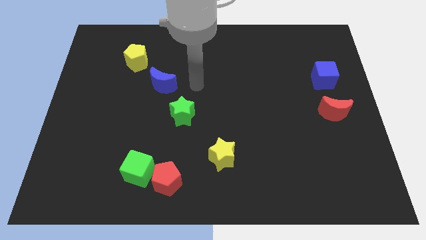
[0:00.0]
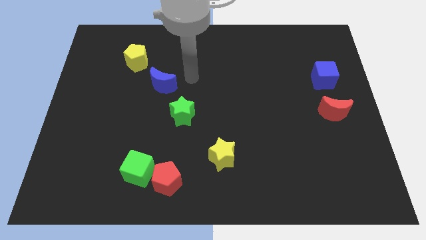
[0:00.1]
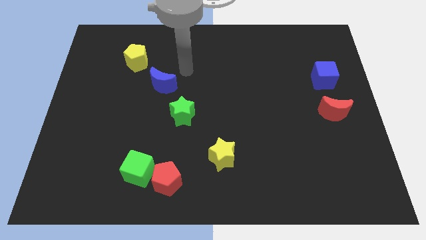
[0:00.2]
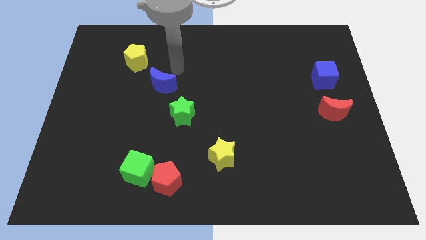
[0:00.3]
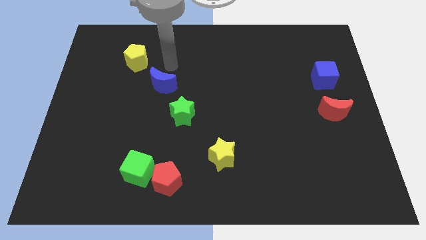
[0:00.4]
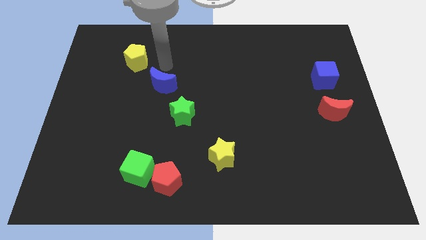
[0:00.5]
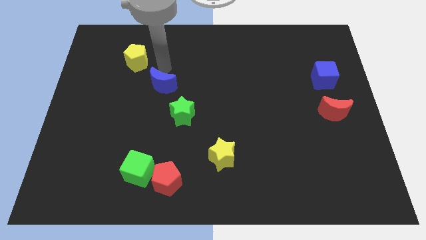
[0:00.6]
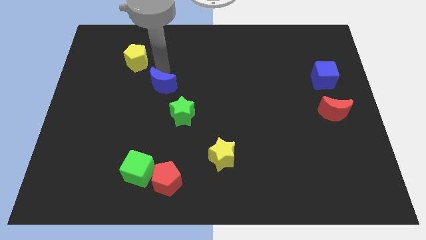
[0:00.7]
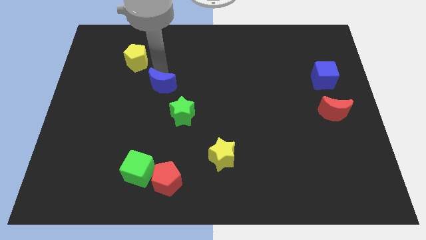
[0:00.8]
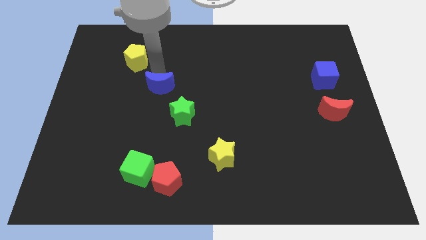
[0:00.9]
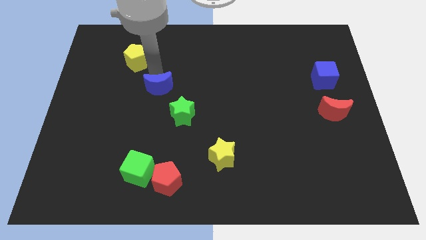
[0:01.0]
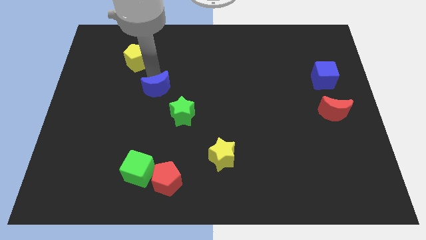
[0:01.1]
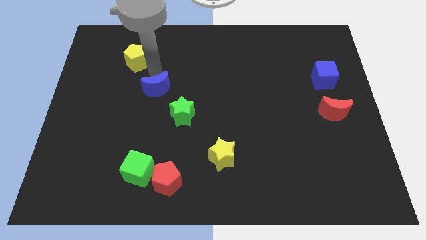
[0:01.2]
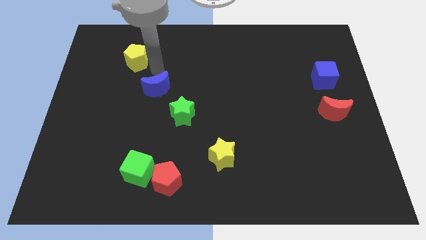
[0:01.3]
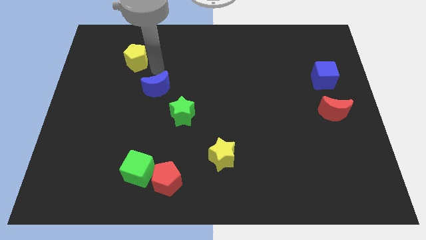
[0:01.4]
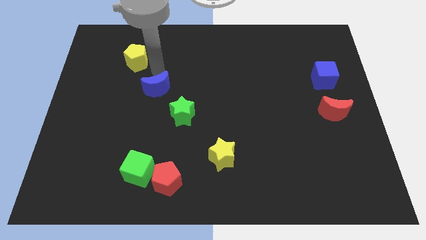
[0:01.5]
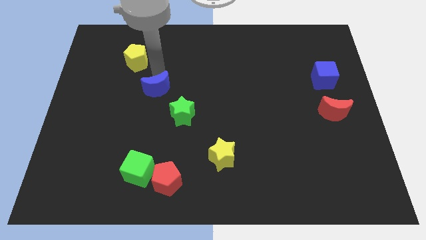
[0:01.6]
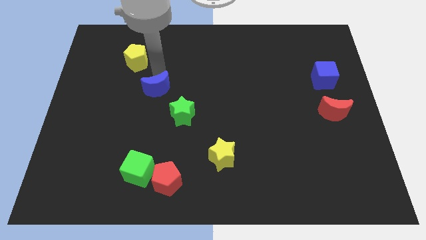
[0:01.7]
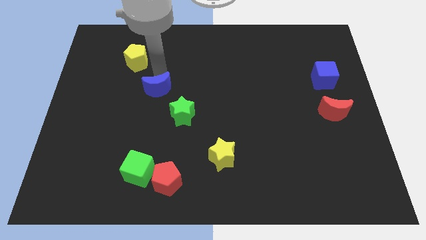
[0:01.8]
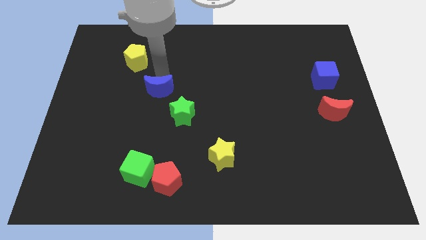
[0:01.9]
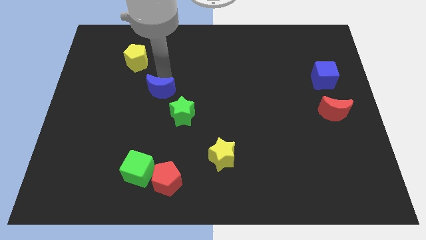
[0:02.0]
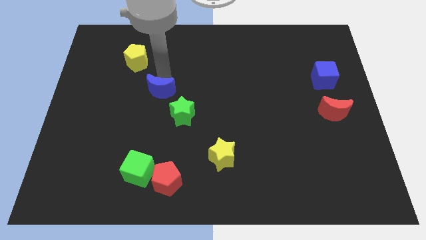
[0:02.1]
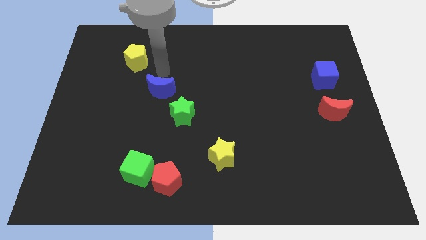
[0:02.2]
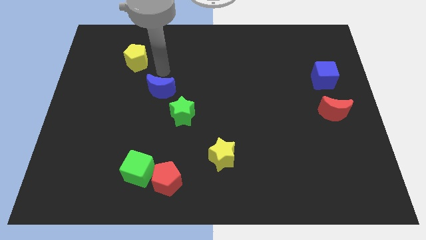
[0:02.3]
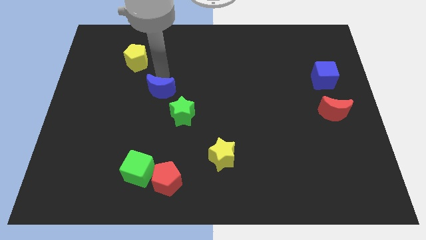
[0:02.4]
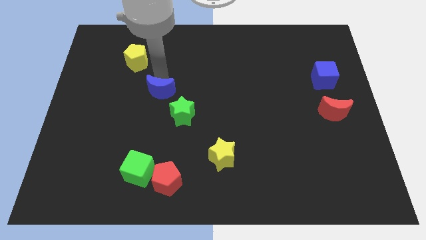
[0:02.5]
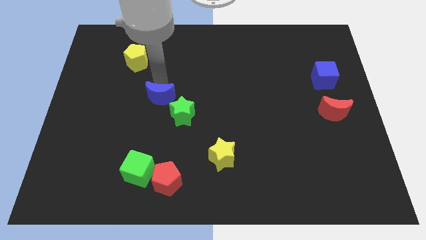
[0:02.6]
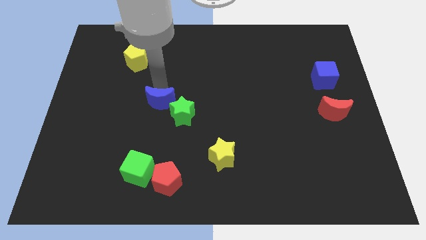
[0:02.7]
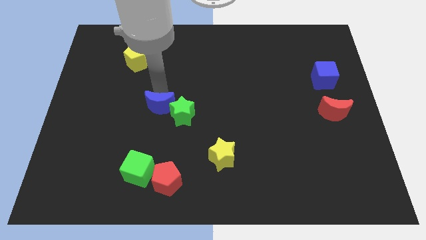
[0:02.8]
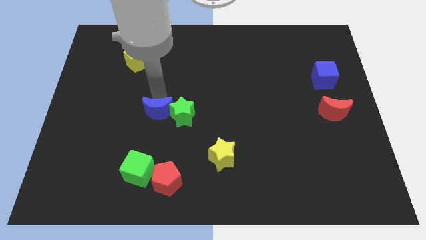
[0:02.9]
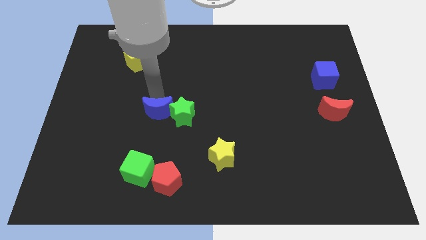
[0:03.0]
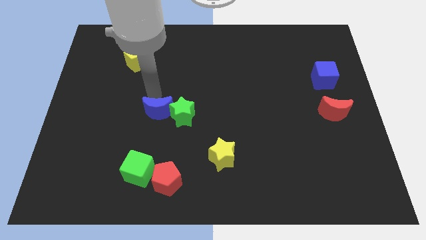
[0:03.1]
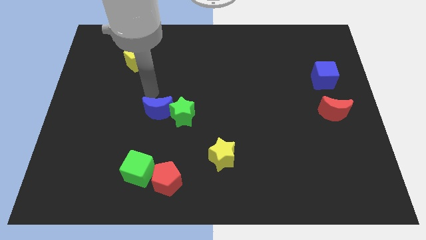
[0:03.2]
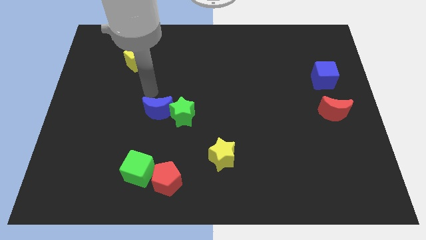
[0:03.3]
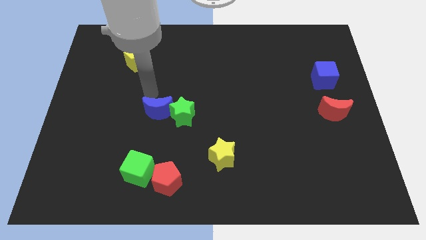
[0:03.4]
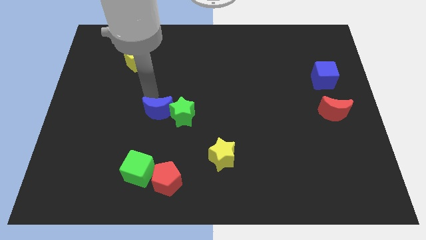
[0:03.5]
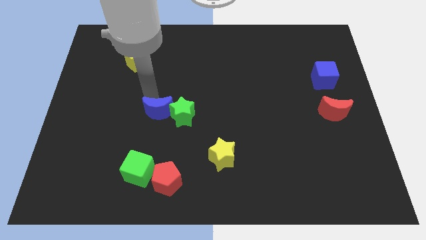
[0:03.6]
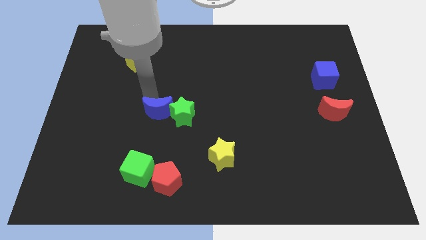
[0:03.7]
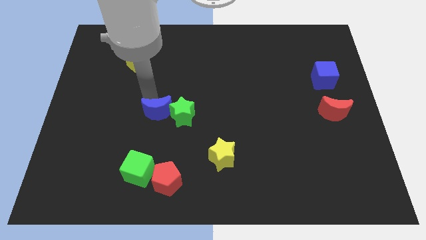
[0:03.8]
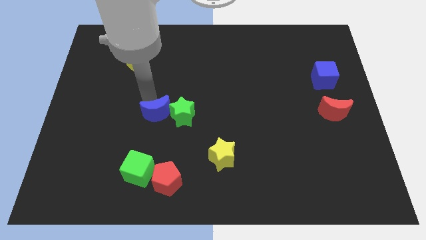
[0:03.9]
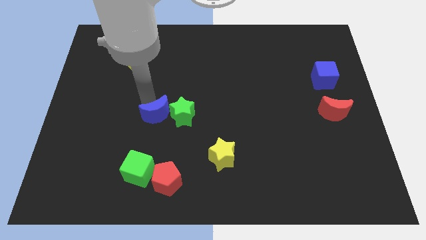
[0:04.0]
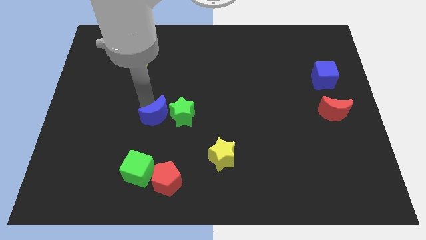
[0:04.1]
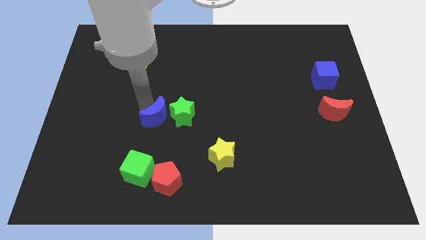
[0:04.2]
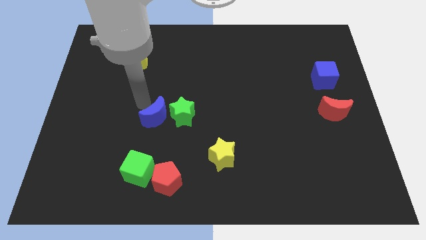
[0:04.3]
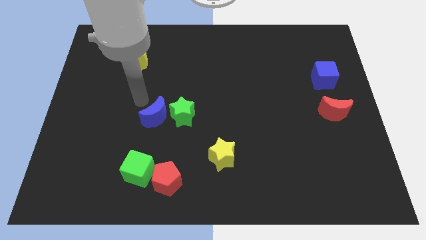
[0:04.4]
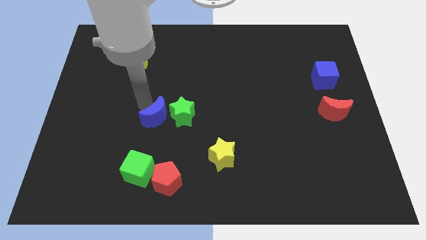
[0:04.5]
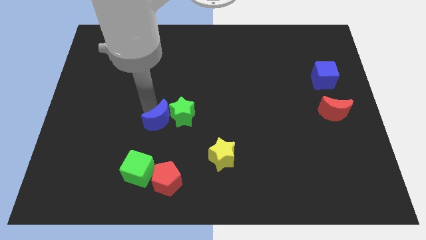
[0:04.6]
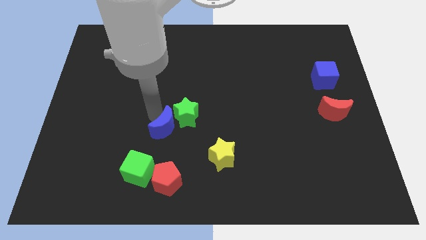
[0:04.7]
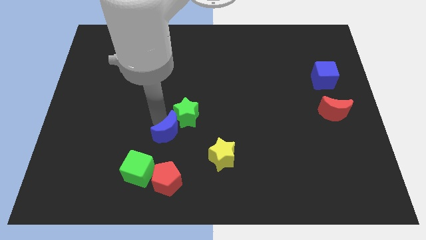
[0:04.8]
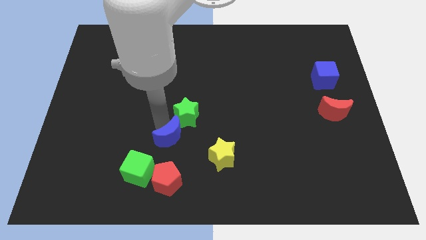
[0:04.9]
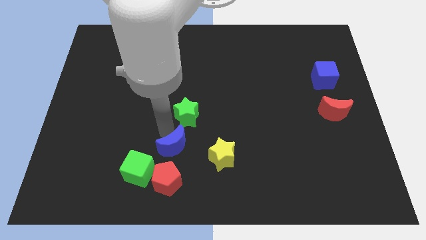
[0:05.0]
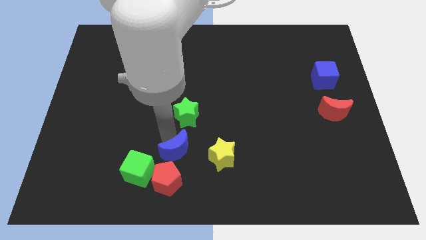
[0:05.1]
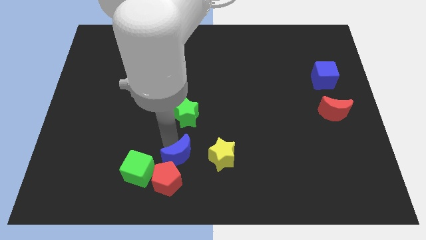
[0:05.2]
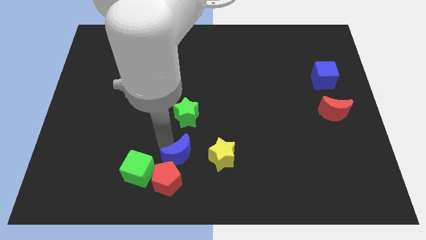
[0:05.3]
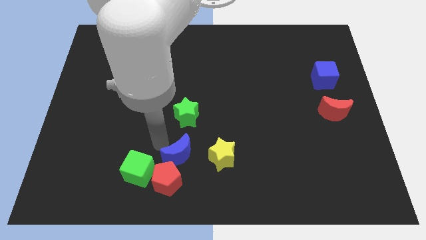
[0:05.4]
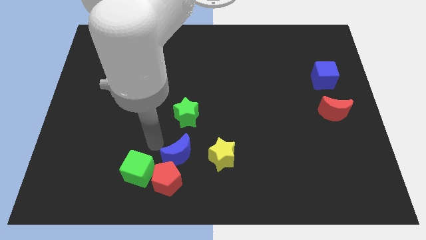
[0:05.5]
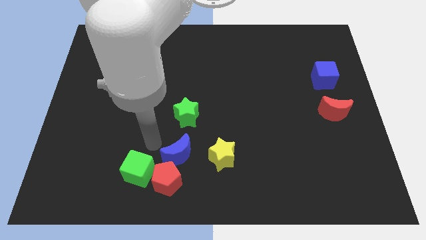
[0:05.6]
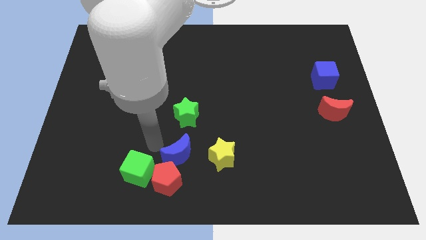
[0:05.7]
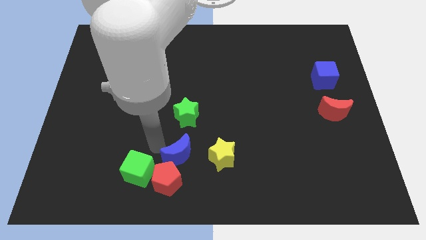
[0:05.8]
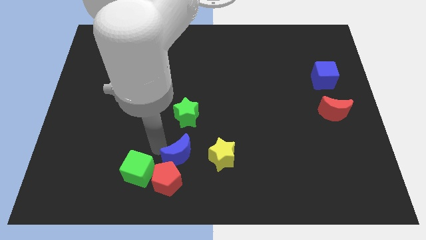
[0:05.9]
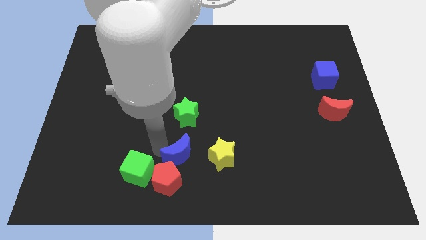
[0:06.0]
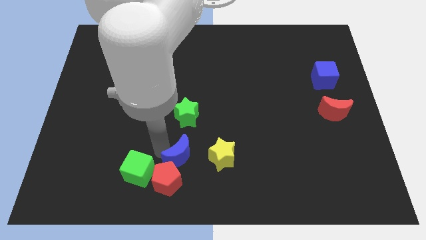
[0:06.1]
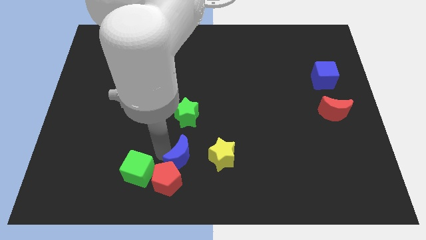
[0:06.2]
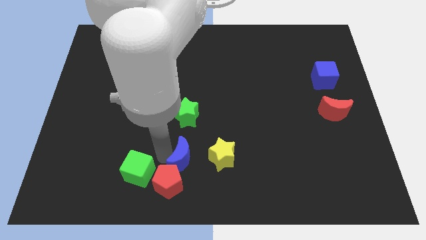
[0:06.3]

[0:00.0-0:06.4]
push the blue moon to the bottom side
